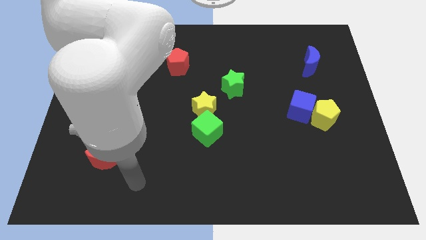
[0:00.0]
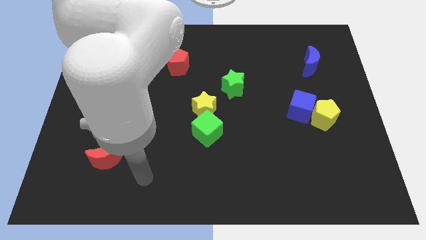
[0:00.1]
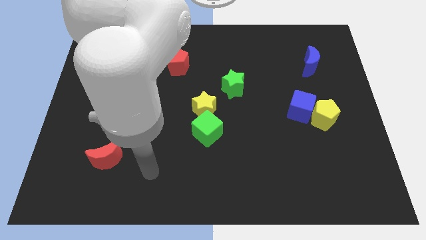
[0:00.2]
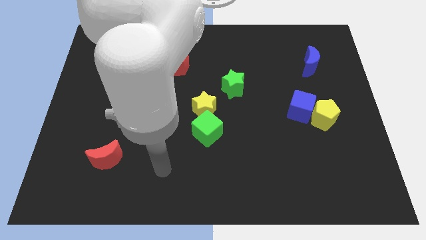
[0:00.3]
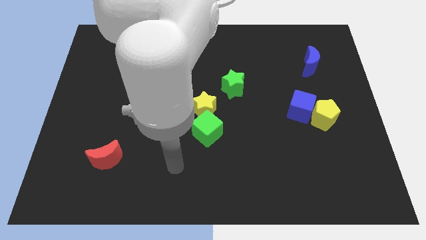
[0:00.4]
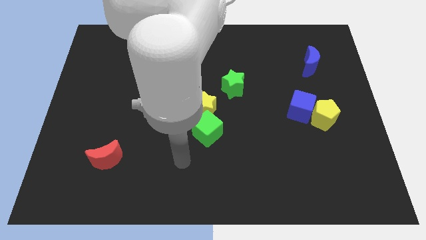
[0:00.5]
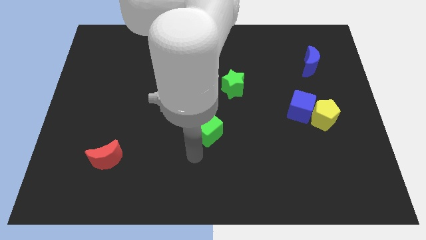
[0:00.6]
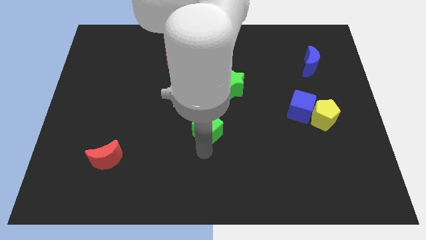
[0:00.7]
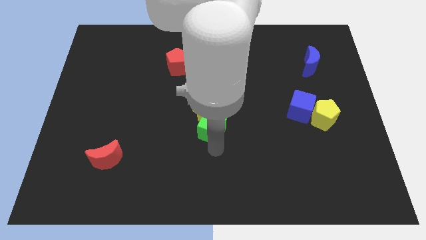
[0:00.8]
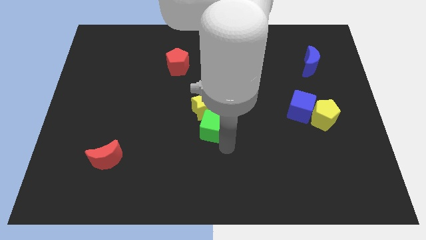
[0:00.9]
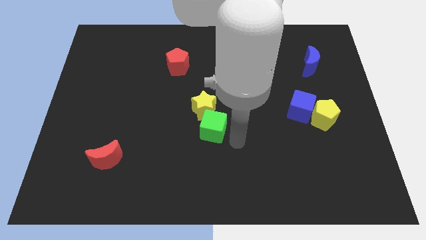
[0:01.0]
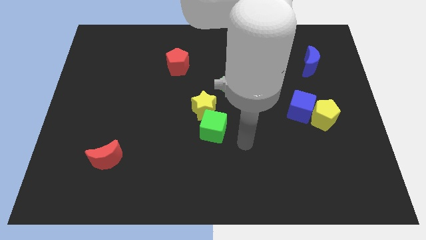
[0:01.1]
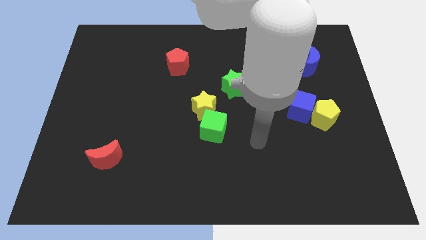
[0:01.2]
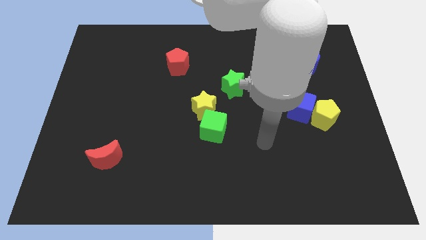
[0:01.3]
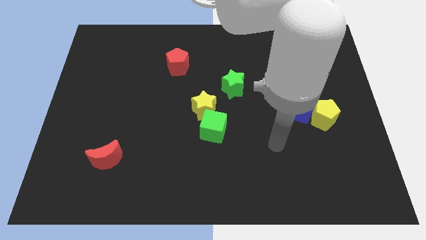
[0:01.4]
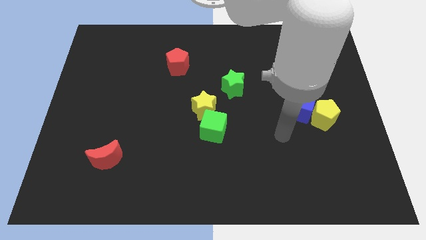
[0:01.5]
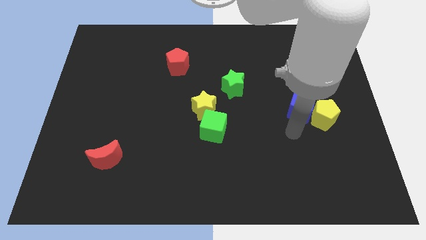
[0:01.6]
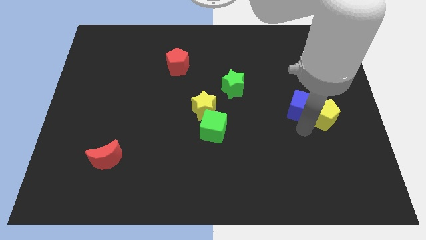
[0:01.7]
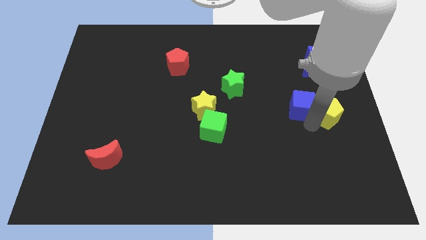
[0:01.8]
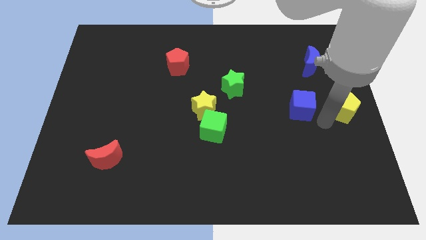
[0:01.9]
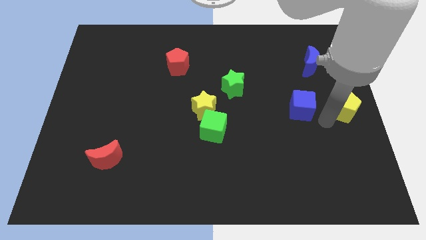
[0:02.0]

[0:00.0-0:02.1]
pull the blue cube apart from the yellow pentagon

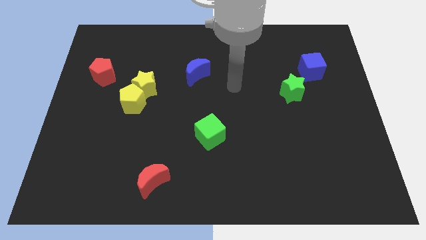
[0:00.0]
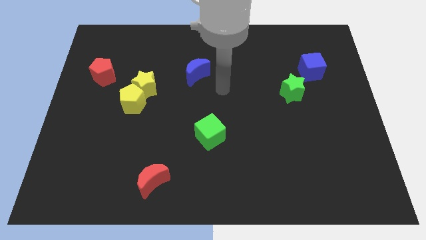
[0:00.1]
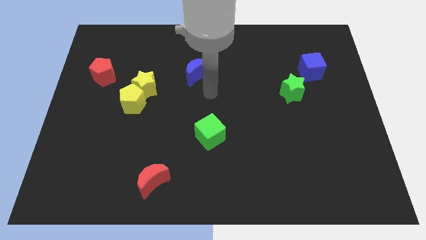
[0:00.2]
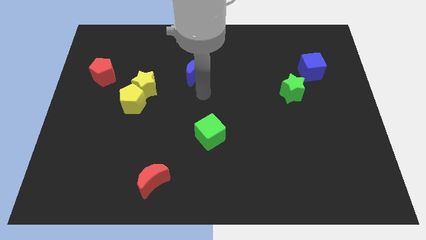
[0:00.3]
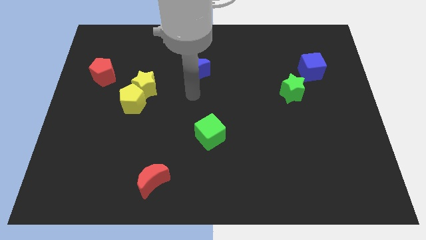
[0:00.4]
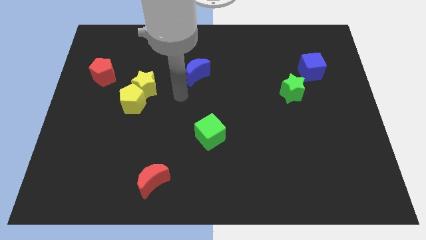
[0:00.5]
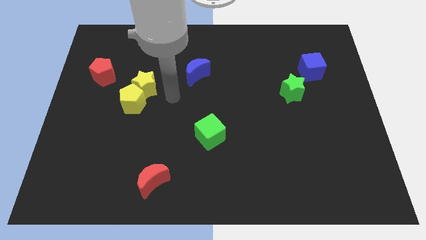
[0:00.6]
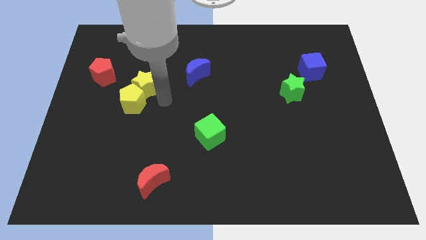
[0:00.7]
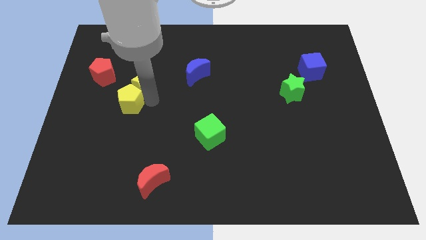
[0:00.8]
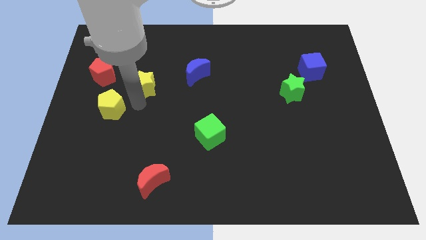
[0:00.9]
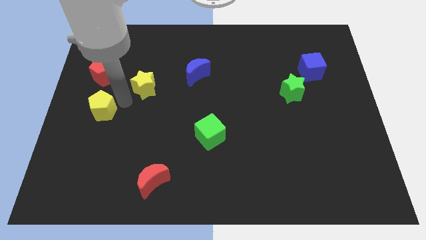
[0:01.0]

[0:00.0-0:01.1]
separate the yellow star from the yellow pentagon

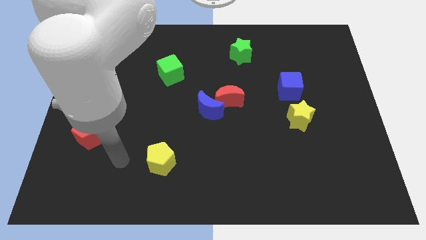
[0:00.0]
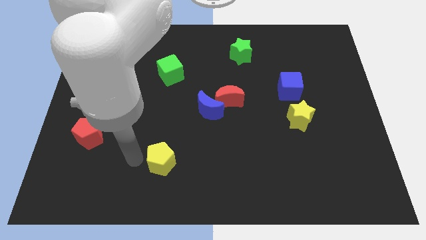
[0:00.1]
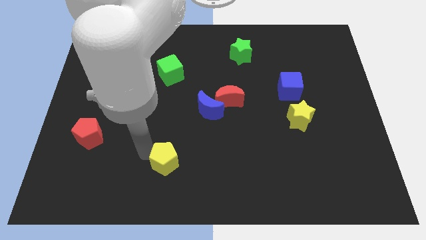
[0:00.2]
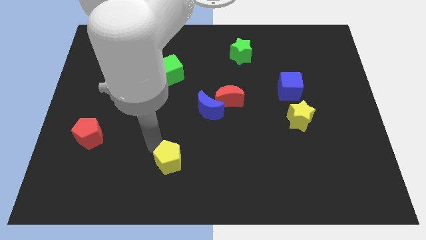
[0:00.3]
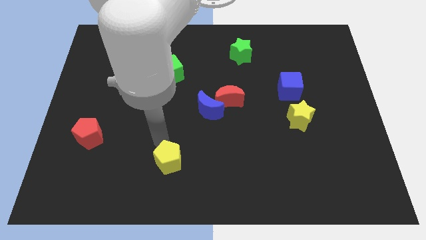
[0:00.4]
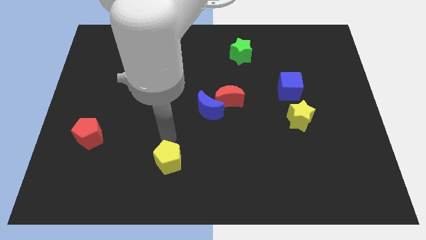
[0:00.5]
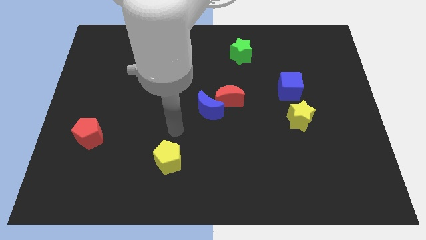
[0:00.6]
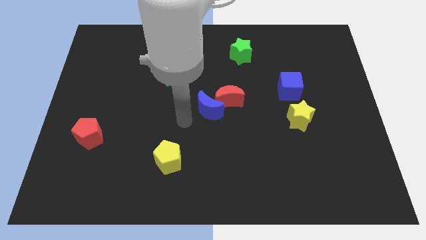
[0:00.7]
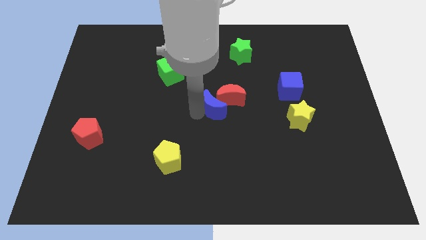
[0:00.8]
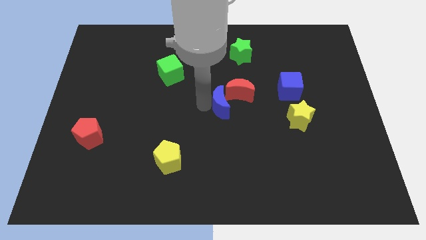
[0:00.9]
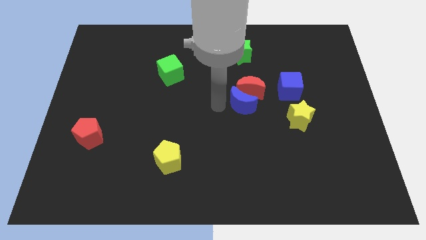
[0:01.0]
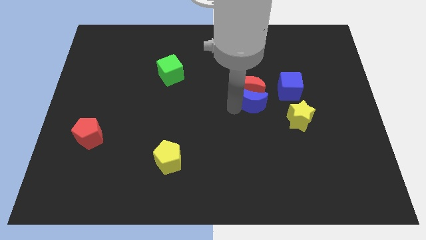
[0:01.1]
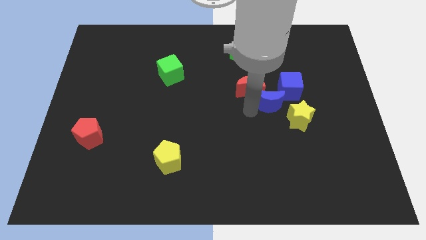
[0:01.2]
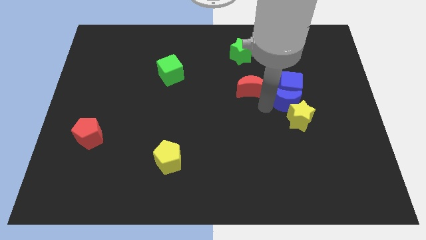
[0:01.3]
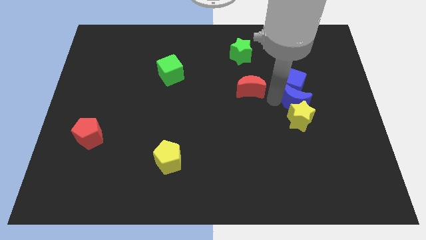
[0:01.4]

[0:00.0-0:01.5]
pull the red moon apart from the blue moon

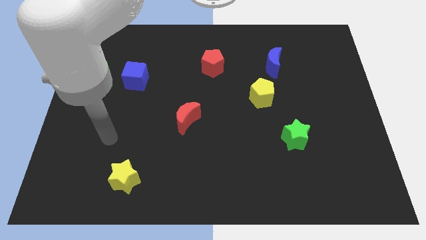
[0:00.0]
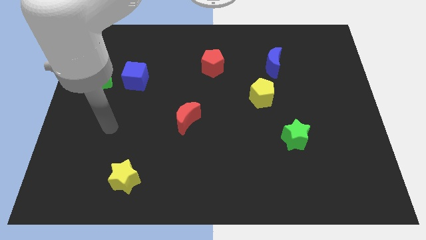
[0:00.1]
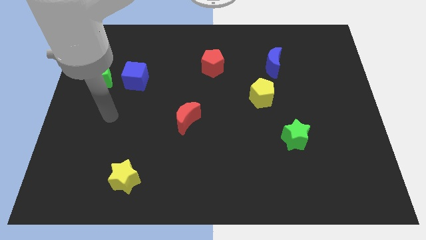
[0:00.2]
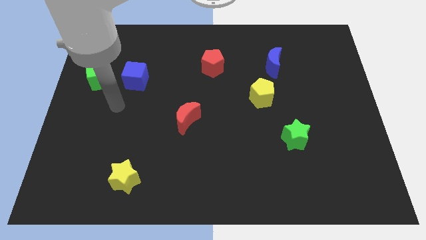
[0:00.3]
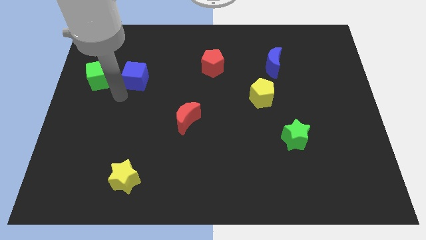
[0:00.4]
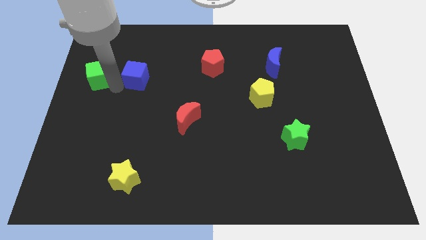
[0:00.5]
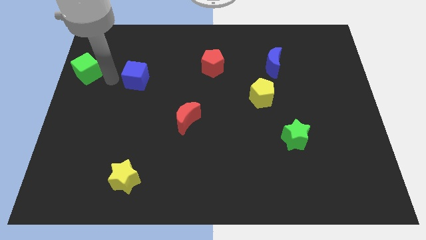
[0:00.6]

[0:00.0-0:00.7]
pull the blue cube apart from the green cube

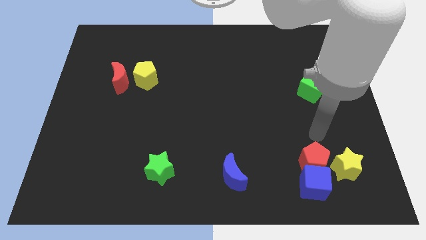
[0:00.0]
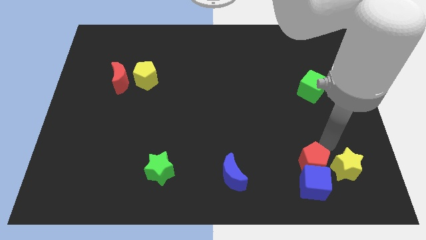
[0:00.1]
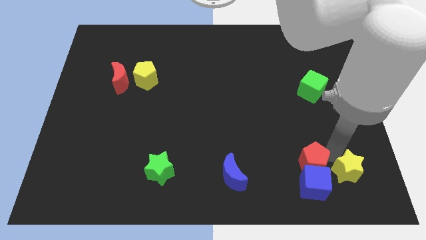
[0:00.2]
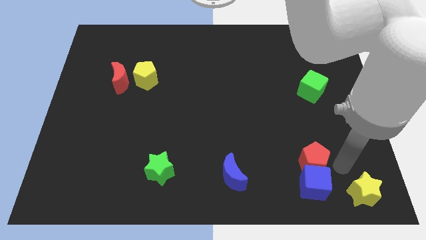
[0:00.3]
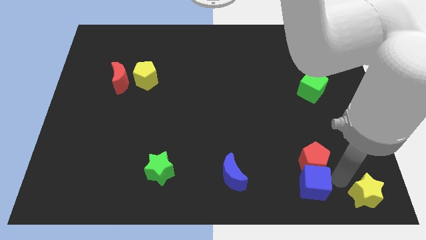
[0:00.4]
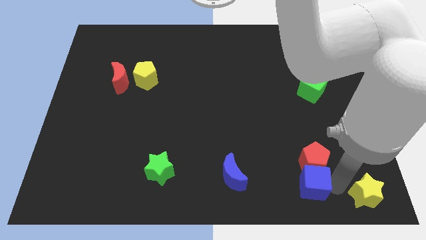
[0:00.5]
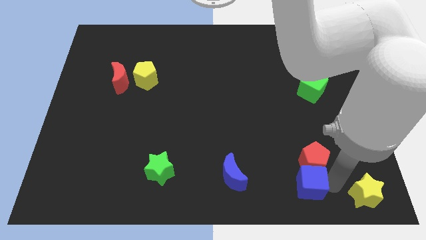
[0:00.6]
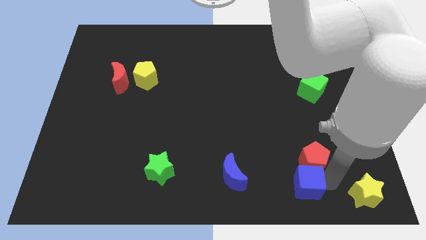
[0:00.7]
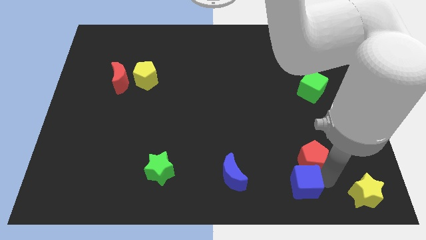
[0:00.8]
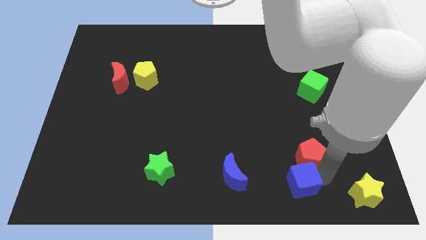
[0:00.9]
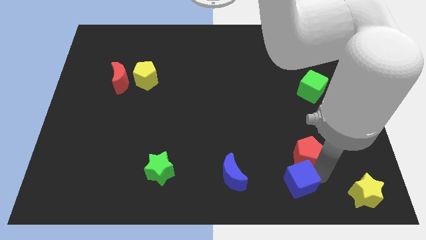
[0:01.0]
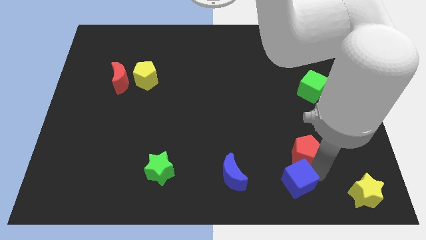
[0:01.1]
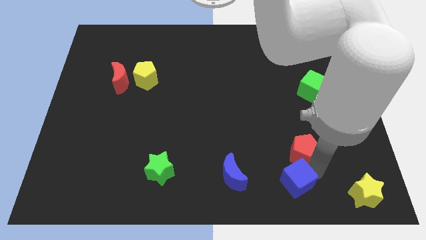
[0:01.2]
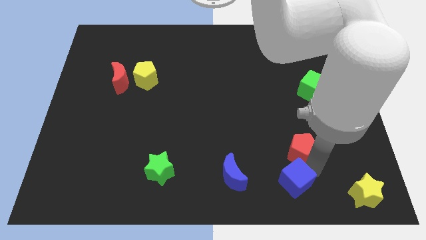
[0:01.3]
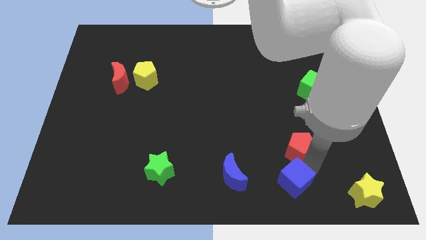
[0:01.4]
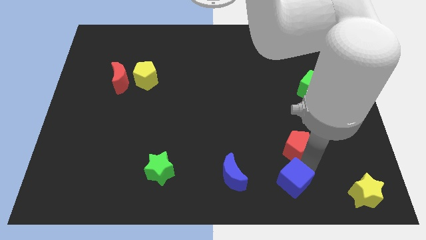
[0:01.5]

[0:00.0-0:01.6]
separate the red pentagon from the blue cube and yellow star

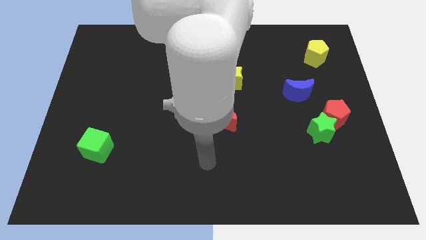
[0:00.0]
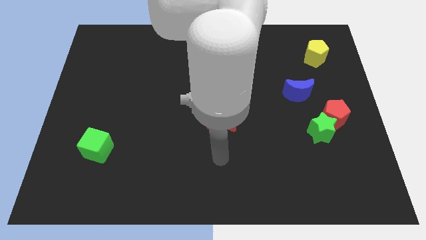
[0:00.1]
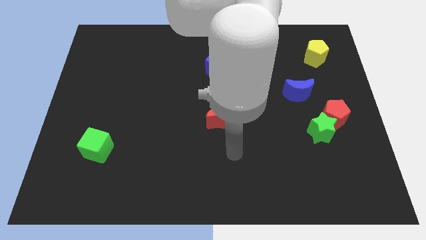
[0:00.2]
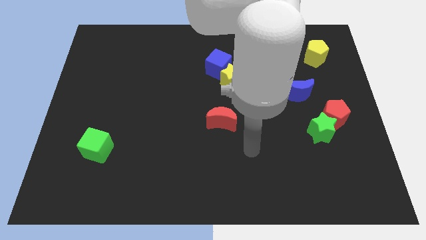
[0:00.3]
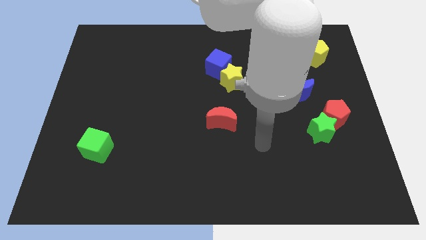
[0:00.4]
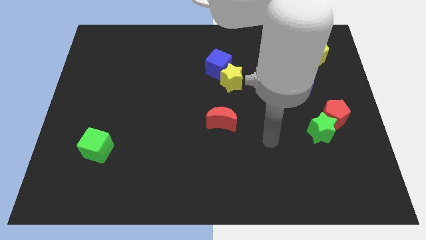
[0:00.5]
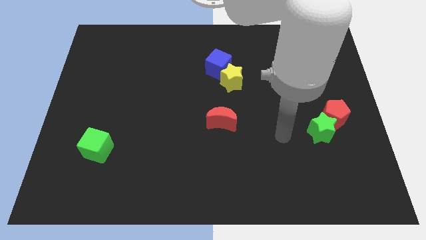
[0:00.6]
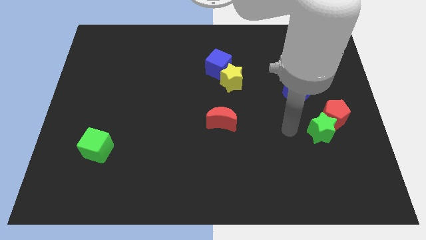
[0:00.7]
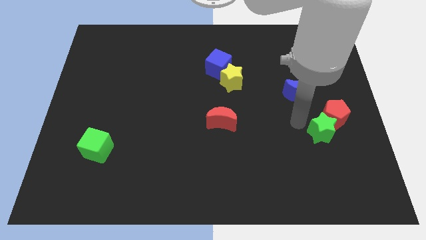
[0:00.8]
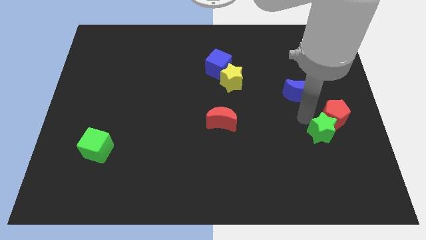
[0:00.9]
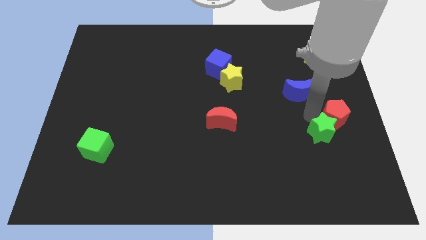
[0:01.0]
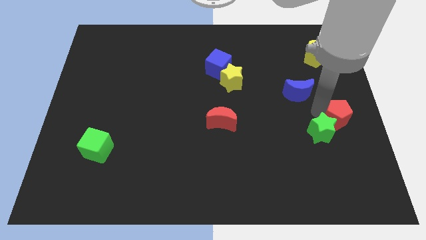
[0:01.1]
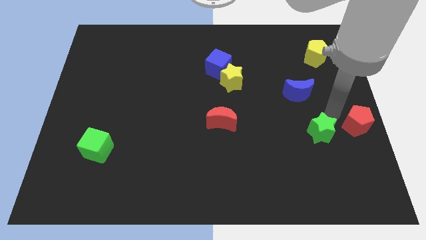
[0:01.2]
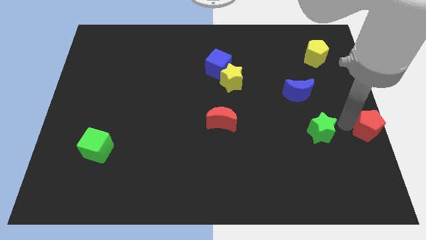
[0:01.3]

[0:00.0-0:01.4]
pull the green star apart from the red pentagon

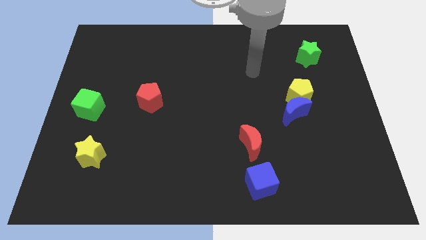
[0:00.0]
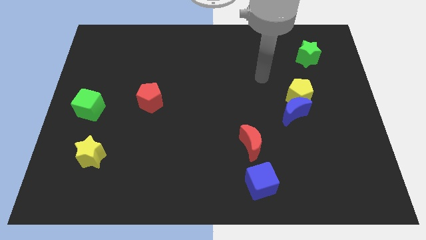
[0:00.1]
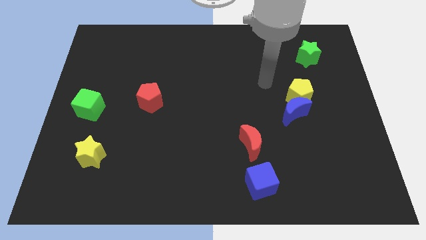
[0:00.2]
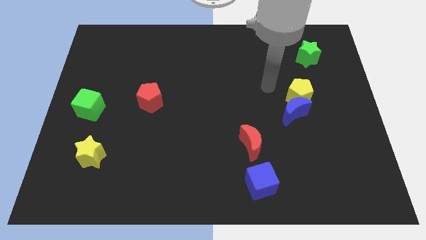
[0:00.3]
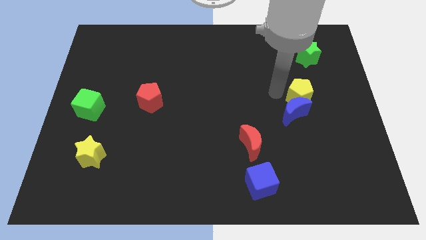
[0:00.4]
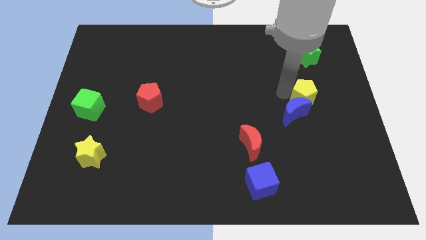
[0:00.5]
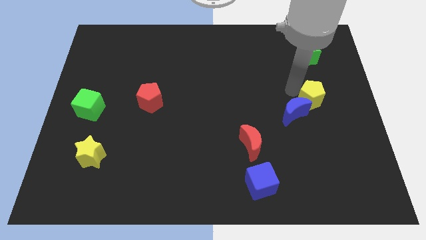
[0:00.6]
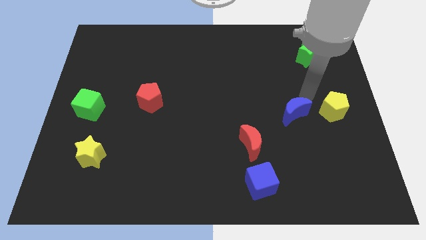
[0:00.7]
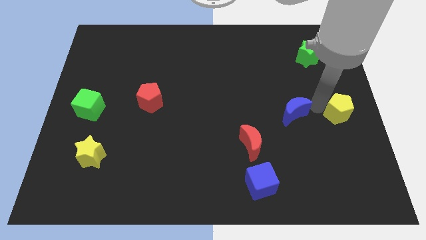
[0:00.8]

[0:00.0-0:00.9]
move the blue moon away from the yellow pentagon

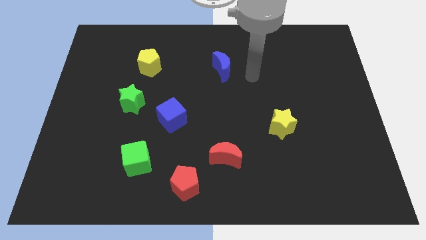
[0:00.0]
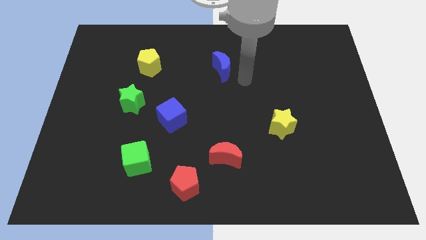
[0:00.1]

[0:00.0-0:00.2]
pull the red moon apart from the red pentagon
